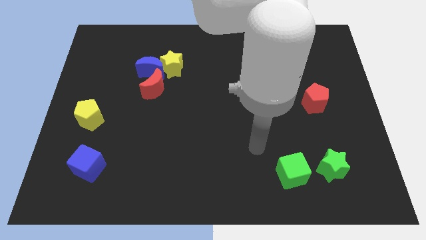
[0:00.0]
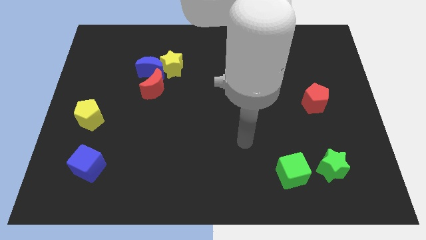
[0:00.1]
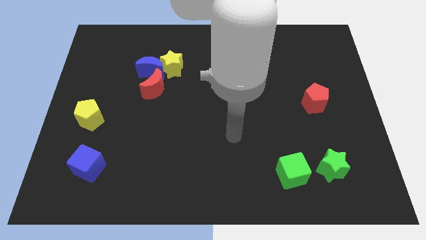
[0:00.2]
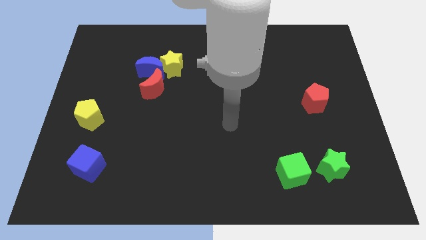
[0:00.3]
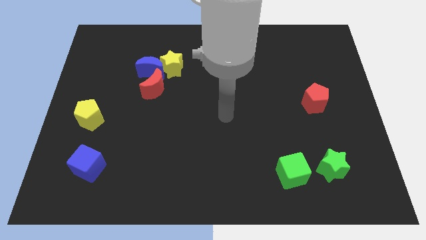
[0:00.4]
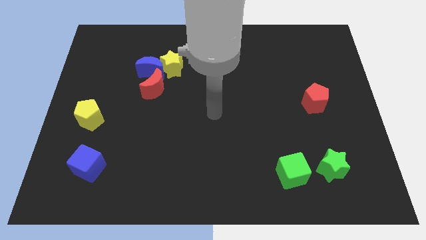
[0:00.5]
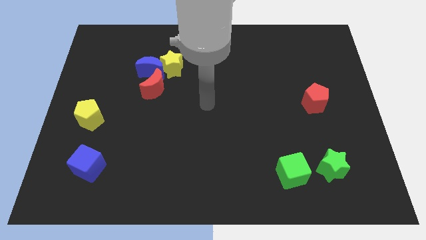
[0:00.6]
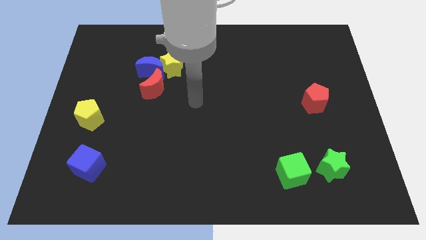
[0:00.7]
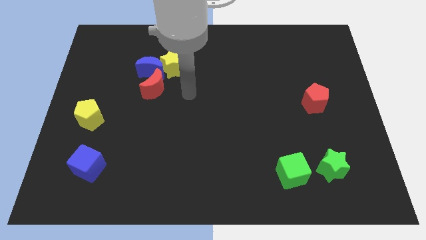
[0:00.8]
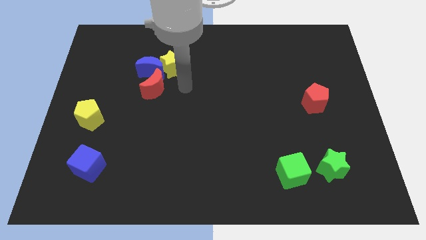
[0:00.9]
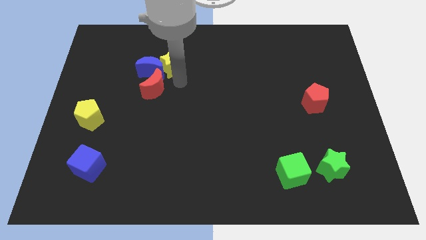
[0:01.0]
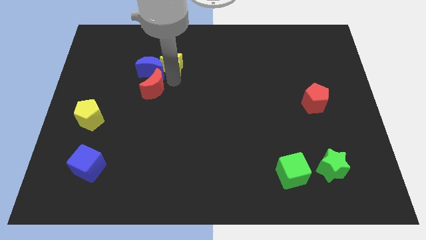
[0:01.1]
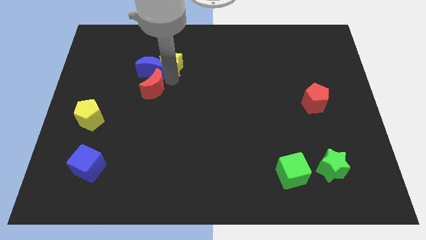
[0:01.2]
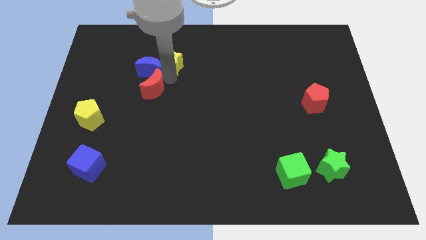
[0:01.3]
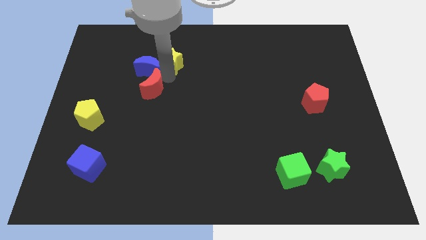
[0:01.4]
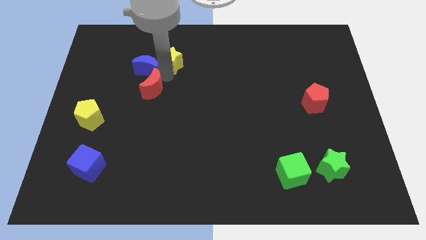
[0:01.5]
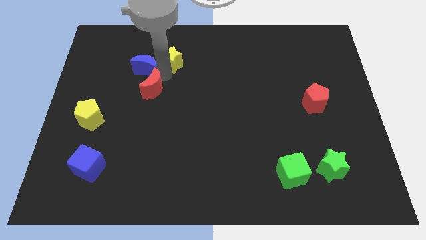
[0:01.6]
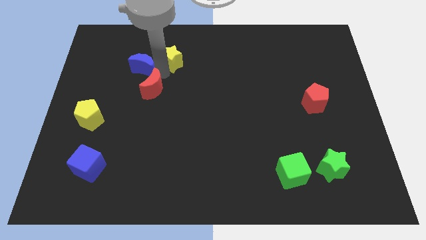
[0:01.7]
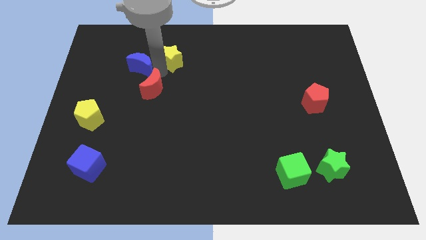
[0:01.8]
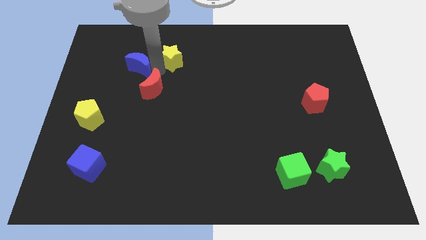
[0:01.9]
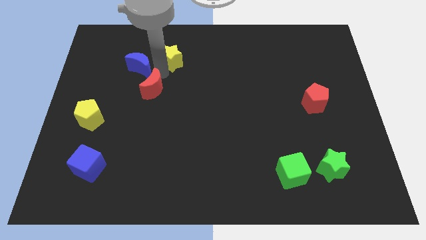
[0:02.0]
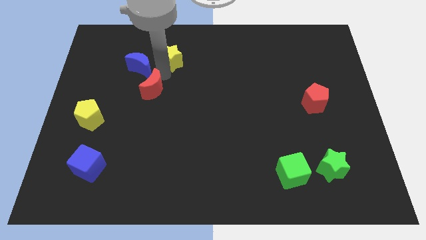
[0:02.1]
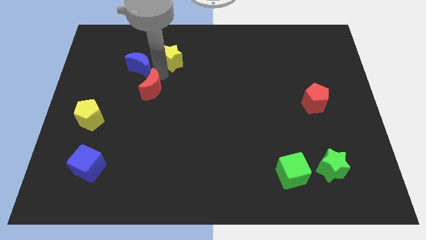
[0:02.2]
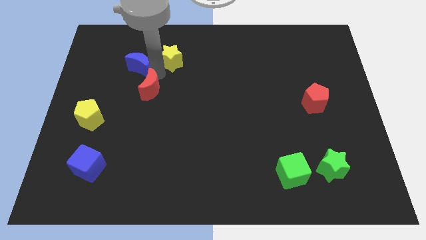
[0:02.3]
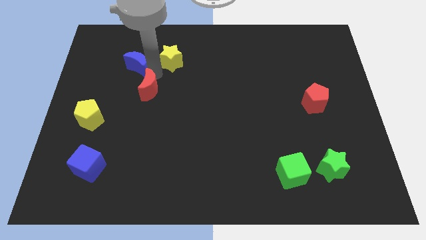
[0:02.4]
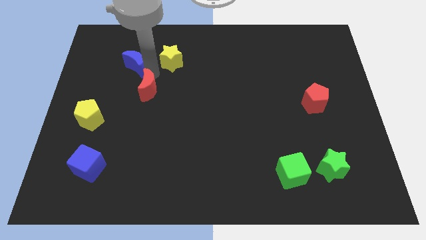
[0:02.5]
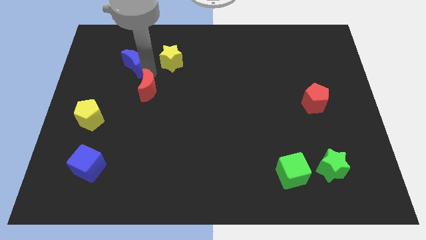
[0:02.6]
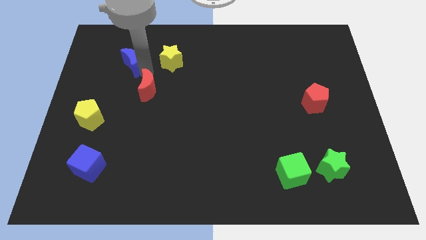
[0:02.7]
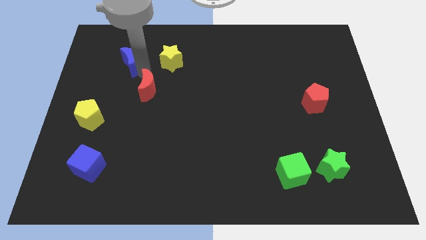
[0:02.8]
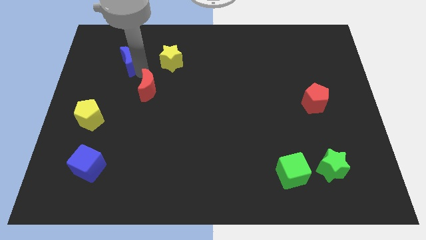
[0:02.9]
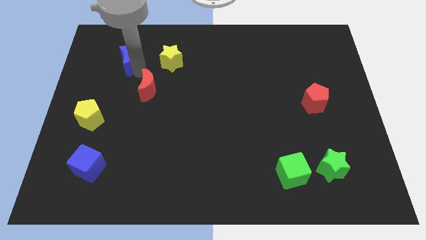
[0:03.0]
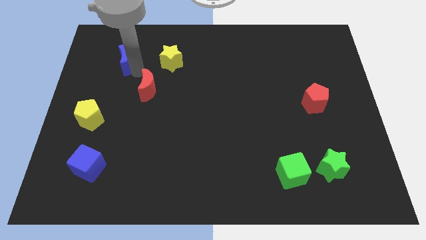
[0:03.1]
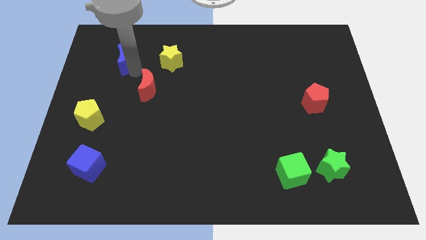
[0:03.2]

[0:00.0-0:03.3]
pull the blue moon apart from the yellow star and red moon

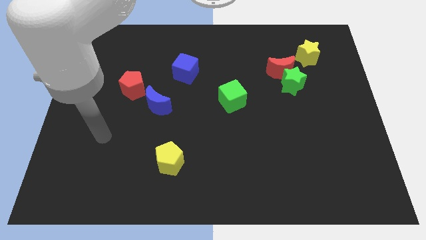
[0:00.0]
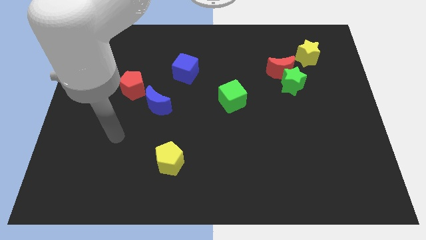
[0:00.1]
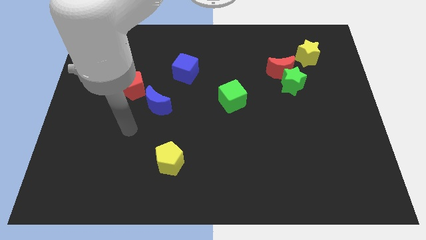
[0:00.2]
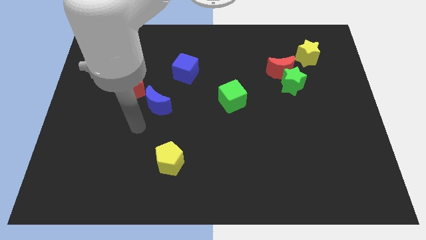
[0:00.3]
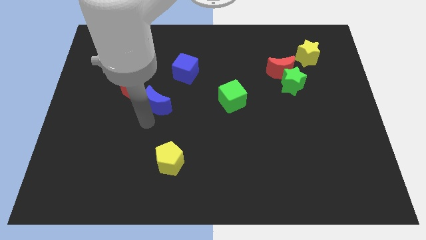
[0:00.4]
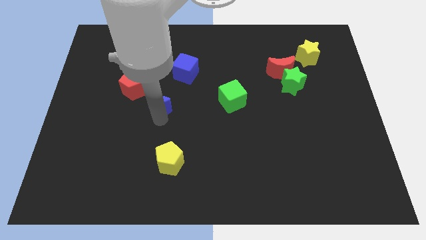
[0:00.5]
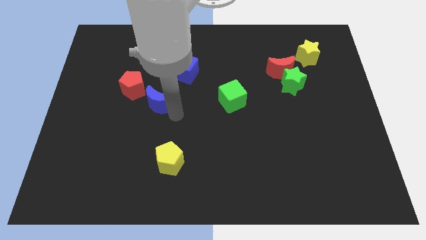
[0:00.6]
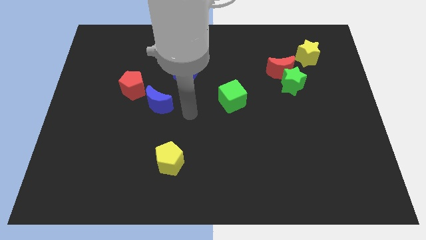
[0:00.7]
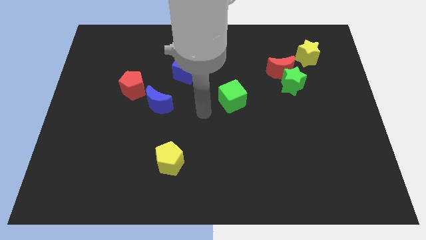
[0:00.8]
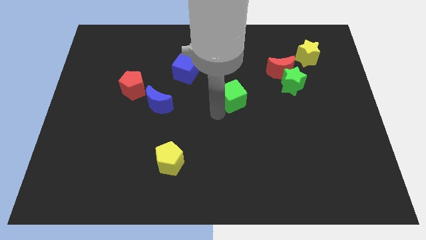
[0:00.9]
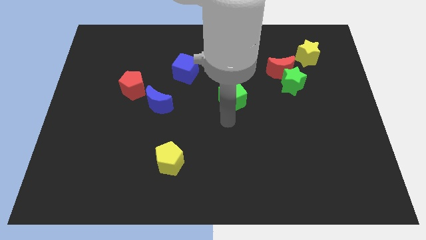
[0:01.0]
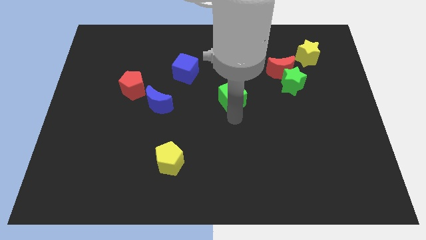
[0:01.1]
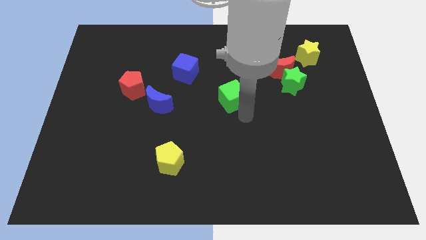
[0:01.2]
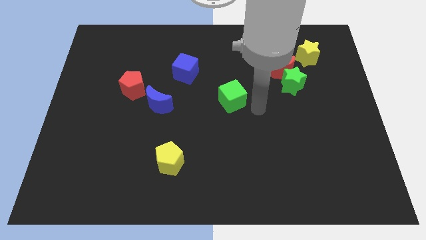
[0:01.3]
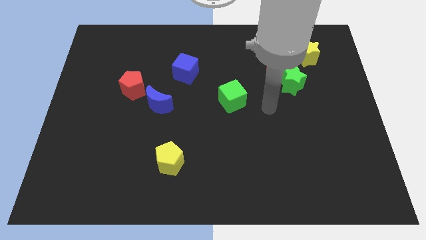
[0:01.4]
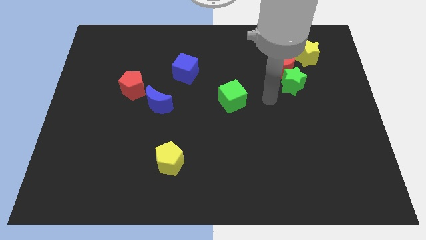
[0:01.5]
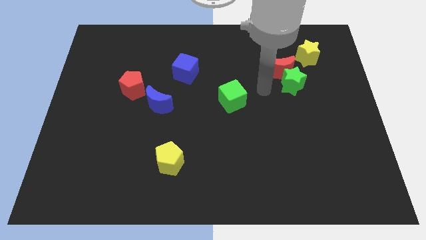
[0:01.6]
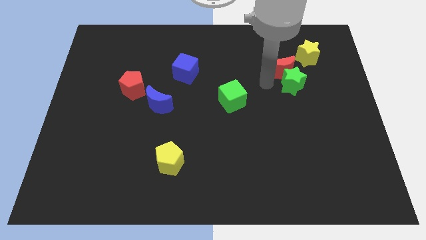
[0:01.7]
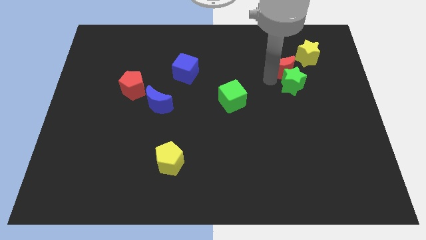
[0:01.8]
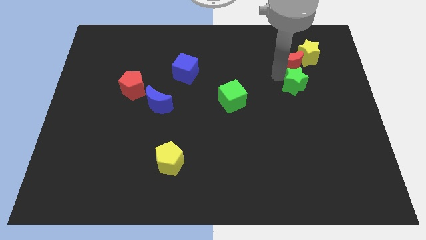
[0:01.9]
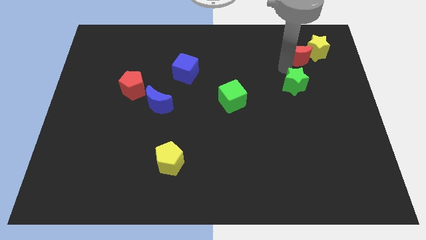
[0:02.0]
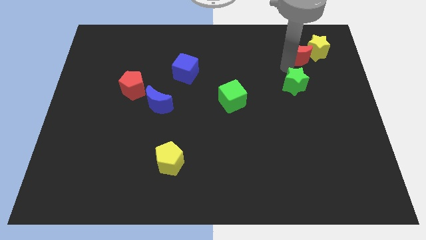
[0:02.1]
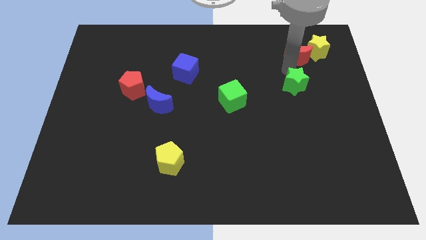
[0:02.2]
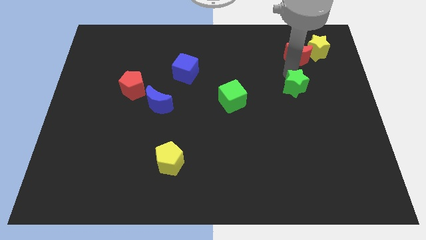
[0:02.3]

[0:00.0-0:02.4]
separate the green star from the red moon

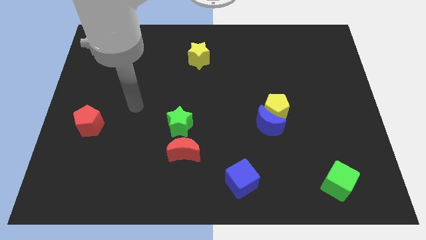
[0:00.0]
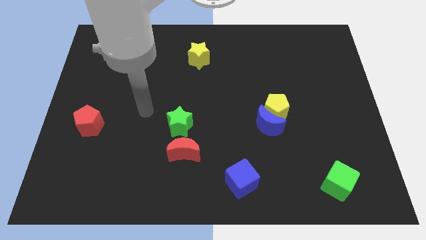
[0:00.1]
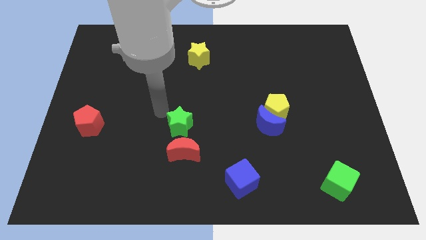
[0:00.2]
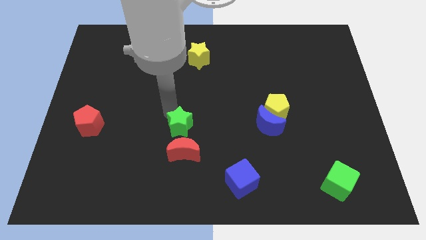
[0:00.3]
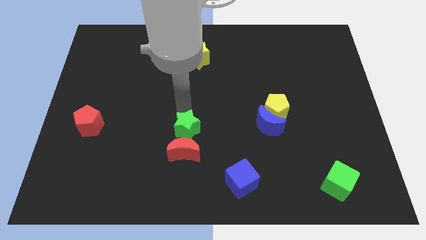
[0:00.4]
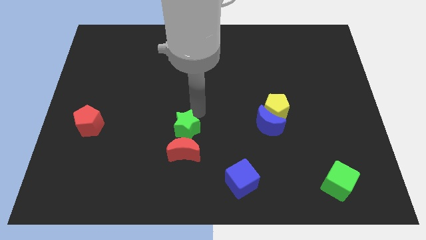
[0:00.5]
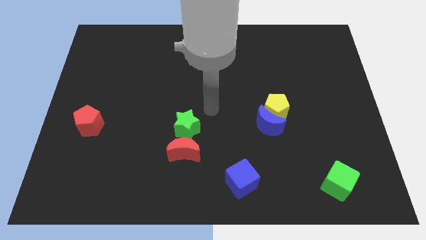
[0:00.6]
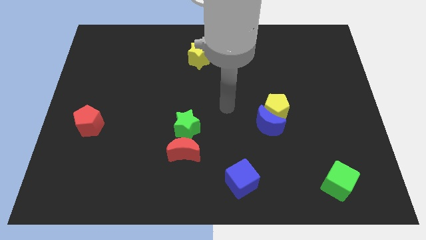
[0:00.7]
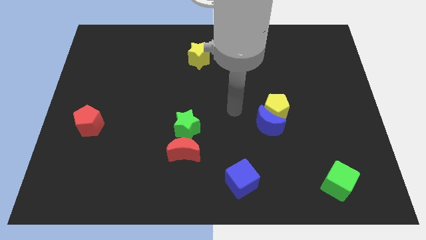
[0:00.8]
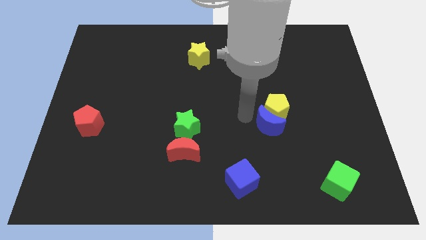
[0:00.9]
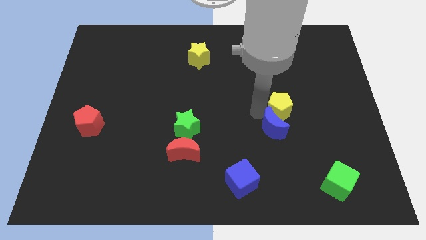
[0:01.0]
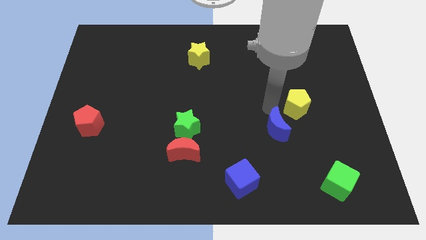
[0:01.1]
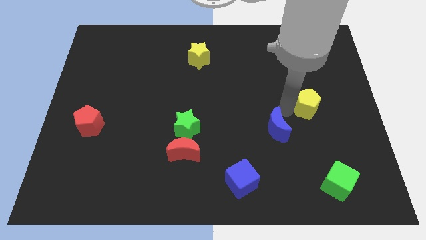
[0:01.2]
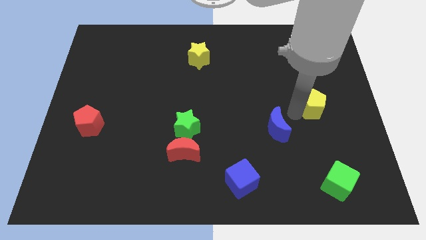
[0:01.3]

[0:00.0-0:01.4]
move the blue moon away from the yellow pentagon

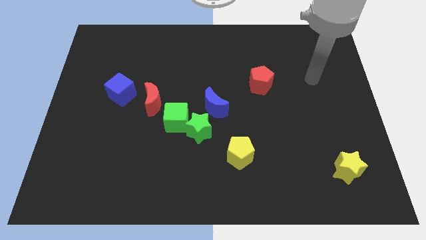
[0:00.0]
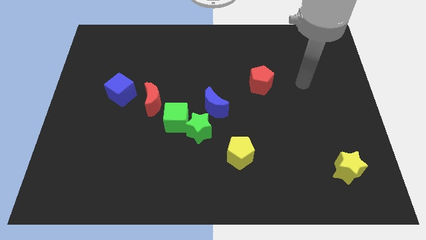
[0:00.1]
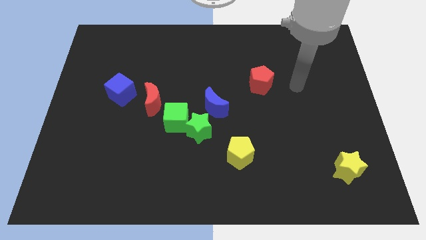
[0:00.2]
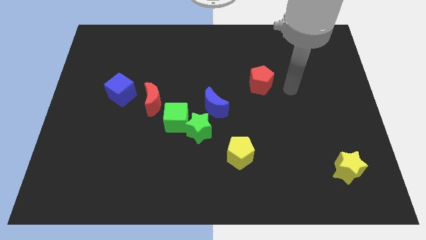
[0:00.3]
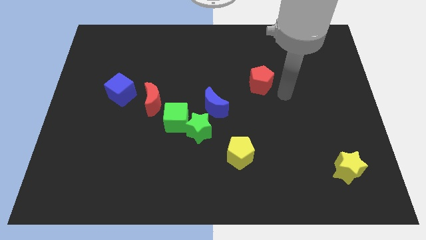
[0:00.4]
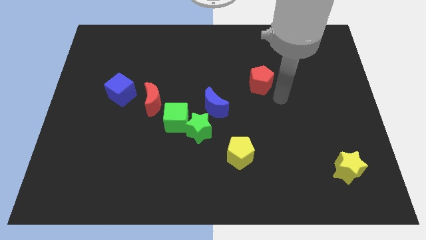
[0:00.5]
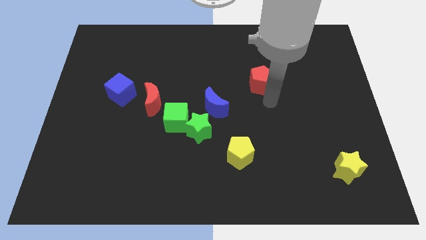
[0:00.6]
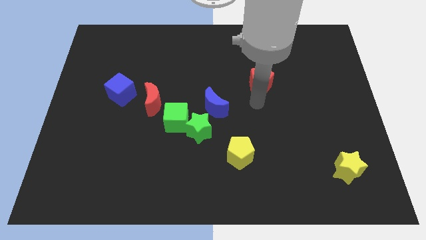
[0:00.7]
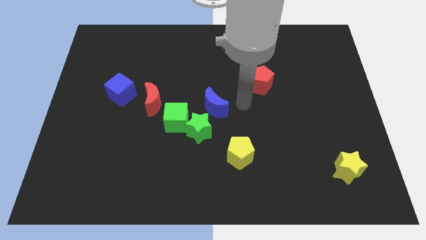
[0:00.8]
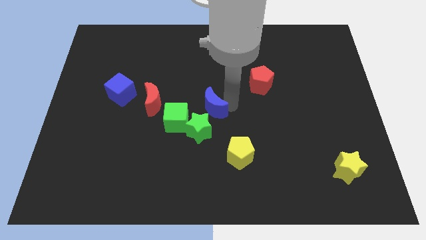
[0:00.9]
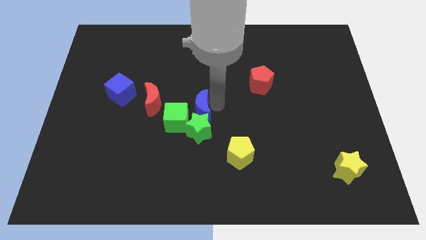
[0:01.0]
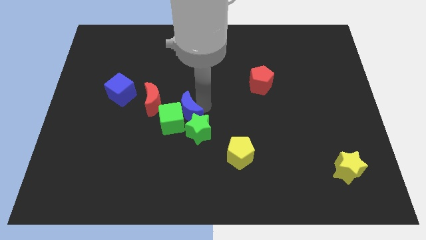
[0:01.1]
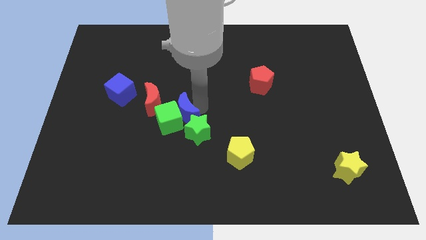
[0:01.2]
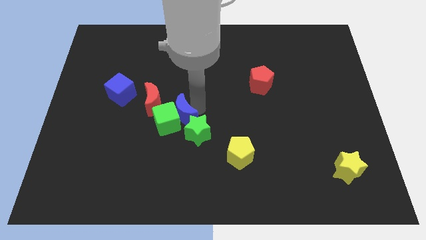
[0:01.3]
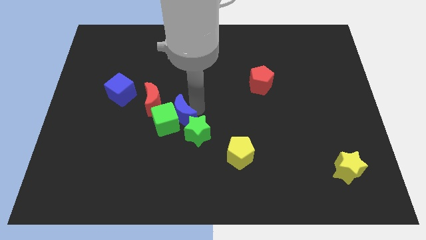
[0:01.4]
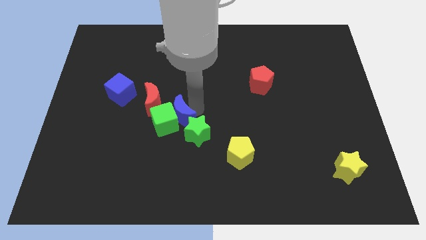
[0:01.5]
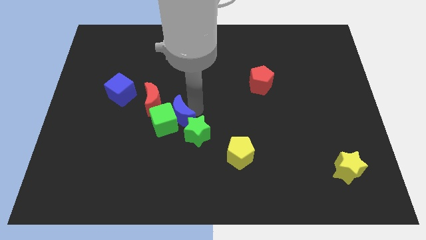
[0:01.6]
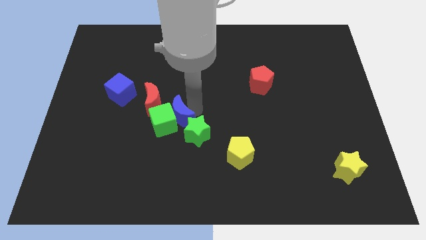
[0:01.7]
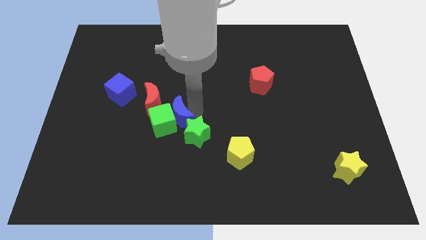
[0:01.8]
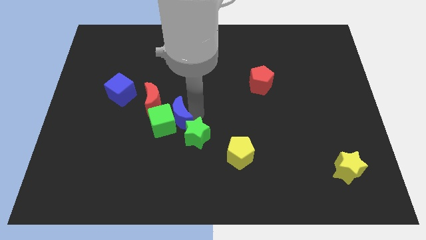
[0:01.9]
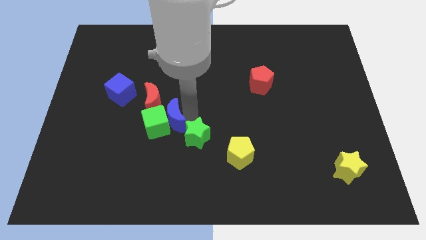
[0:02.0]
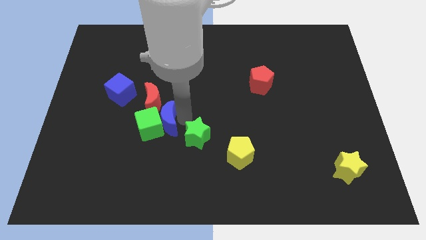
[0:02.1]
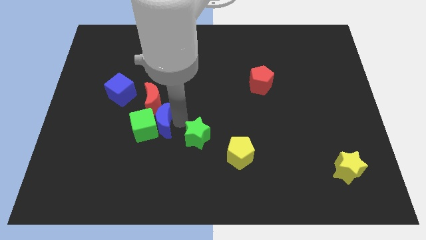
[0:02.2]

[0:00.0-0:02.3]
move the green star away from the green cube and blue moon
